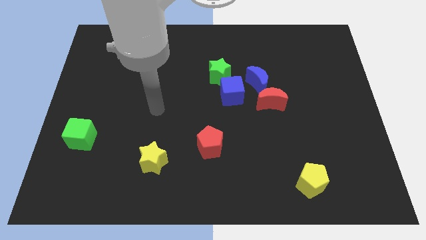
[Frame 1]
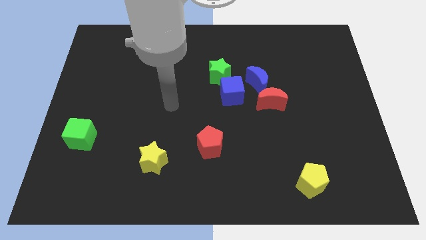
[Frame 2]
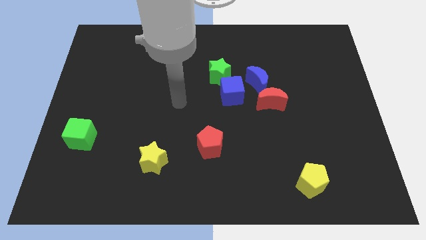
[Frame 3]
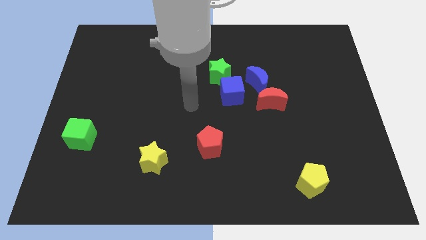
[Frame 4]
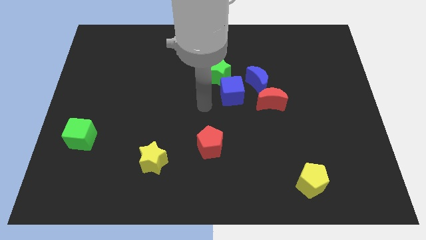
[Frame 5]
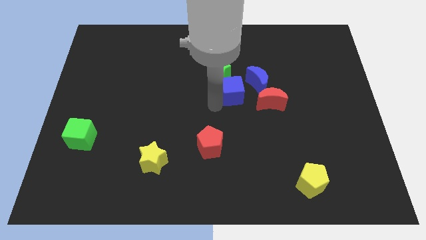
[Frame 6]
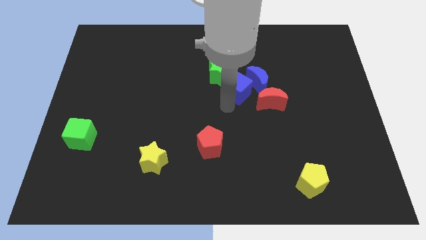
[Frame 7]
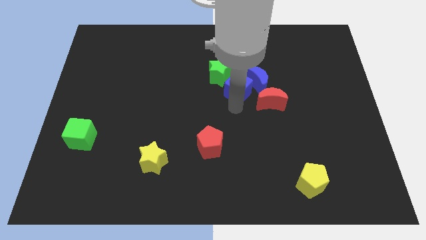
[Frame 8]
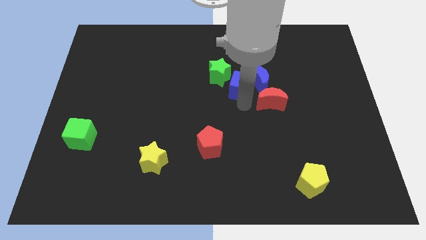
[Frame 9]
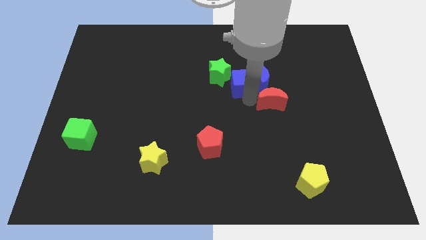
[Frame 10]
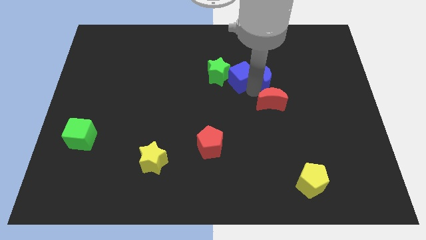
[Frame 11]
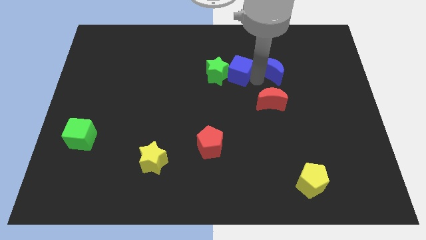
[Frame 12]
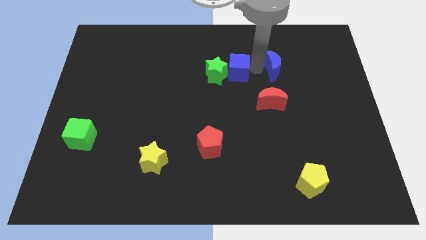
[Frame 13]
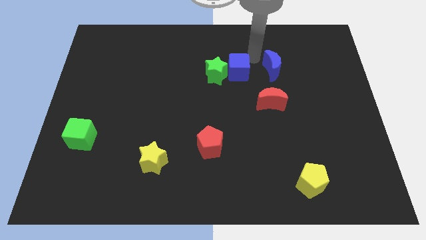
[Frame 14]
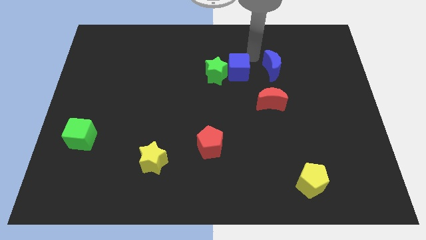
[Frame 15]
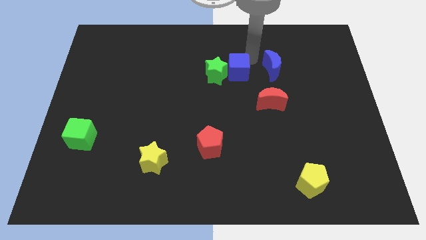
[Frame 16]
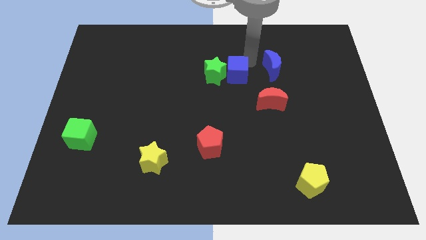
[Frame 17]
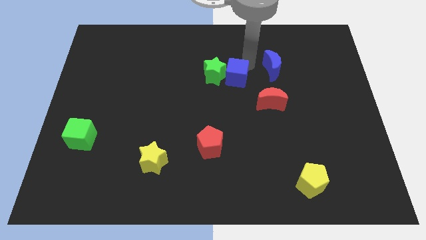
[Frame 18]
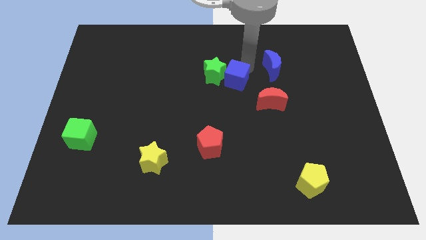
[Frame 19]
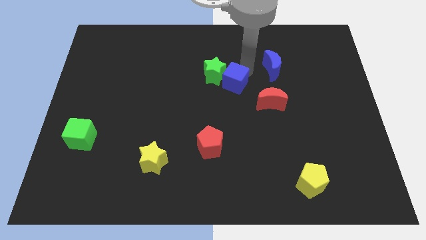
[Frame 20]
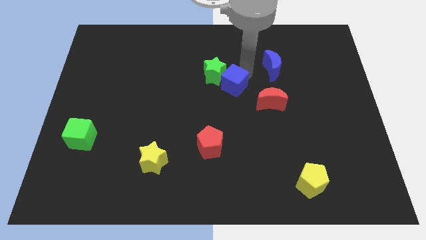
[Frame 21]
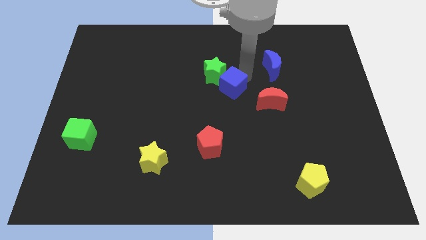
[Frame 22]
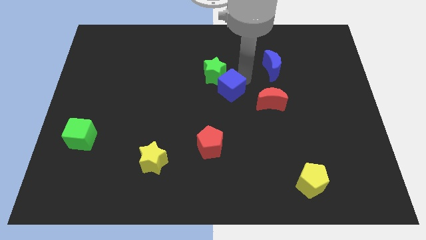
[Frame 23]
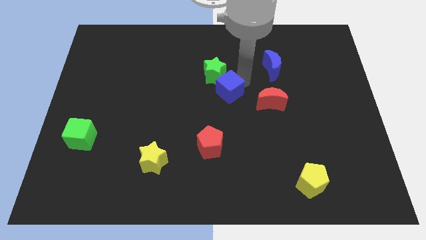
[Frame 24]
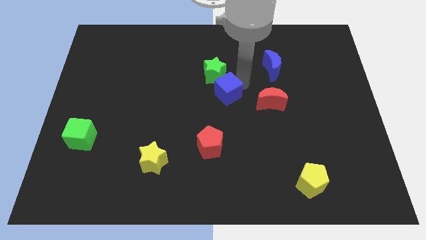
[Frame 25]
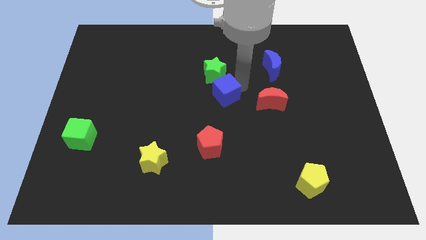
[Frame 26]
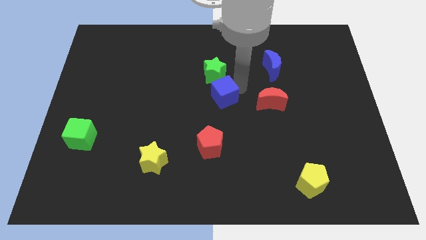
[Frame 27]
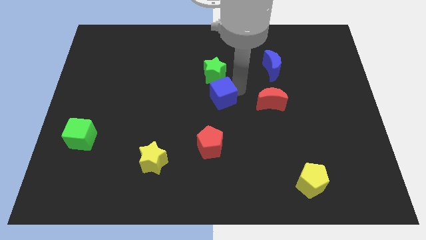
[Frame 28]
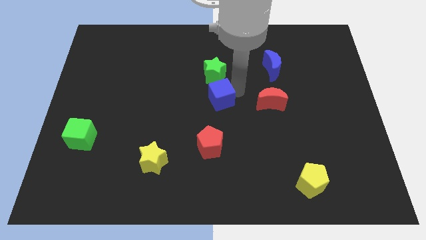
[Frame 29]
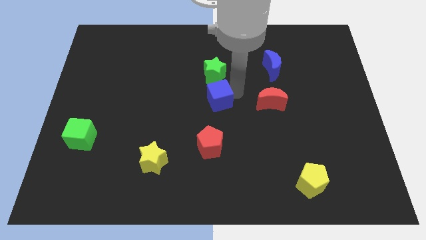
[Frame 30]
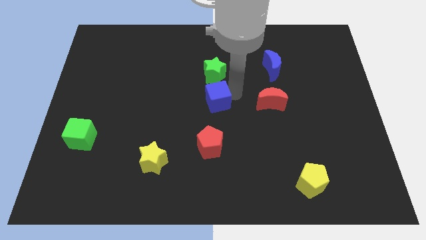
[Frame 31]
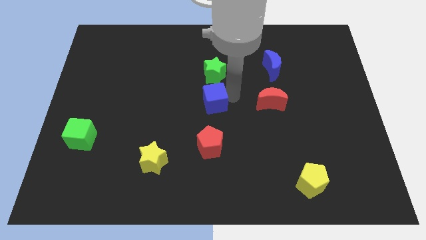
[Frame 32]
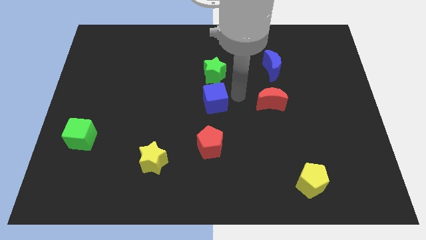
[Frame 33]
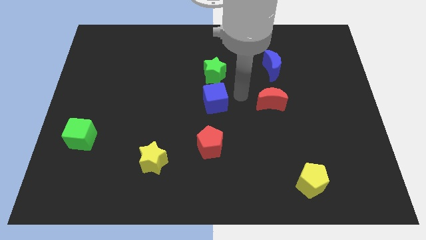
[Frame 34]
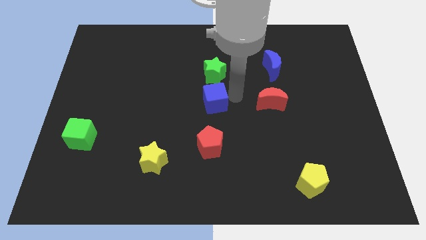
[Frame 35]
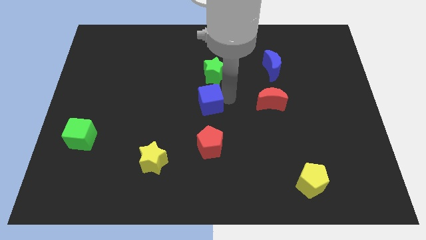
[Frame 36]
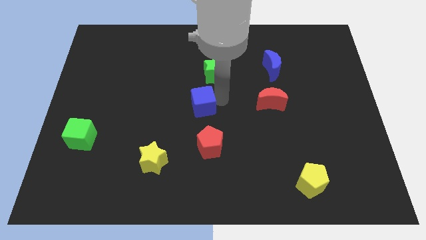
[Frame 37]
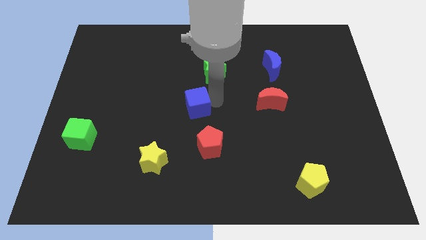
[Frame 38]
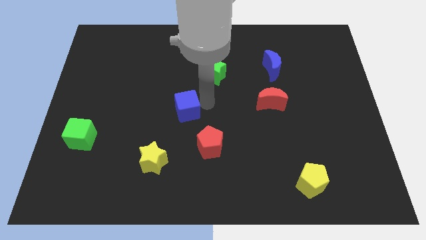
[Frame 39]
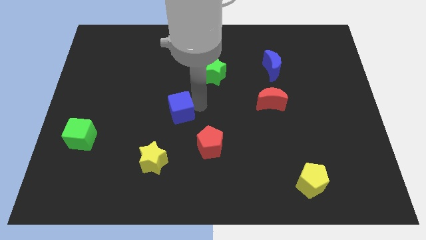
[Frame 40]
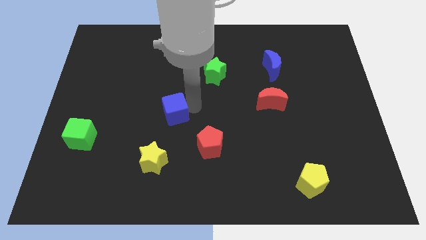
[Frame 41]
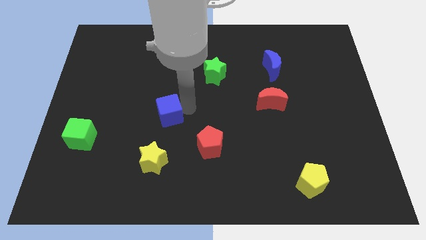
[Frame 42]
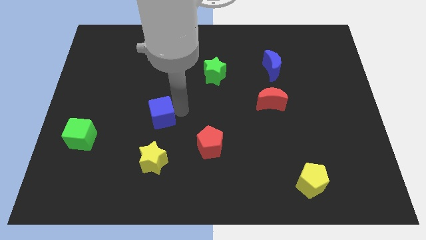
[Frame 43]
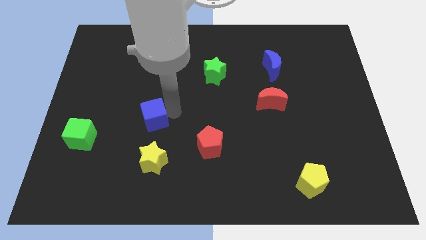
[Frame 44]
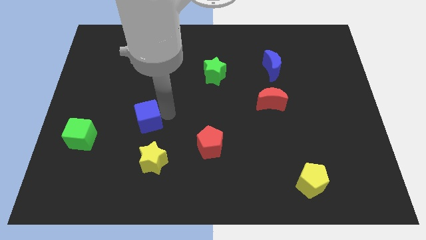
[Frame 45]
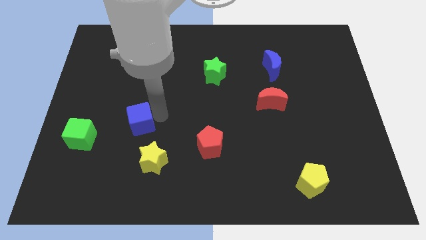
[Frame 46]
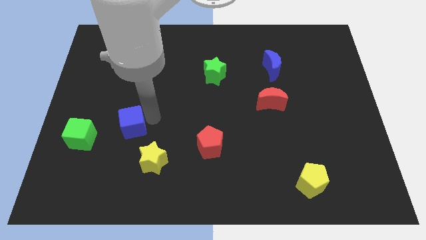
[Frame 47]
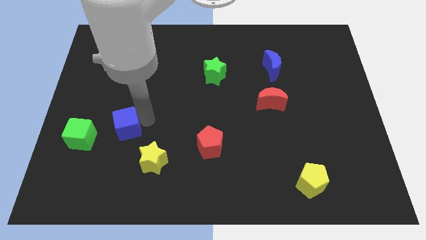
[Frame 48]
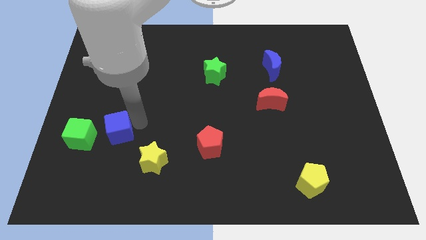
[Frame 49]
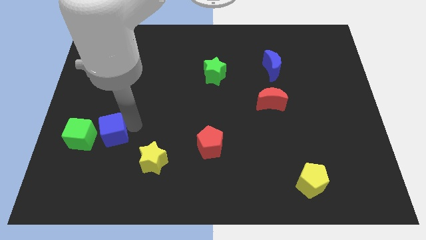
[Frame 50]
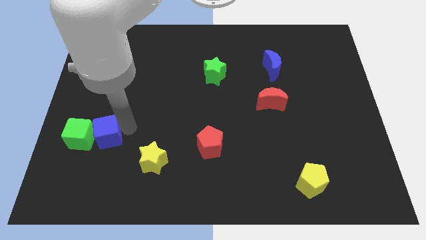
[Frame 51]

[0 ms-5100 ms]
push the blue cube to the green cube

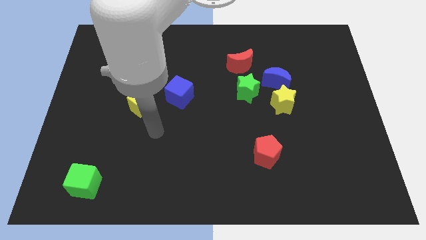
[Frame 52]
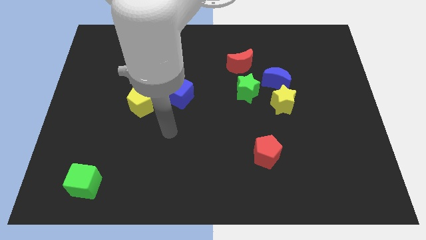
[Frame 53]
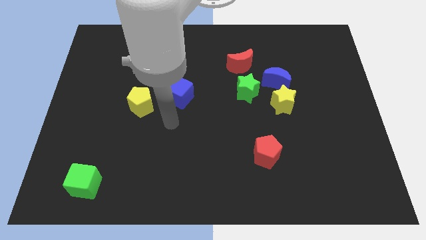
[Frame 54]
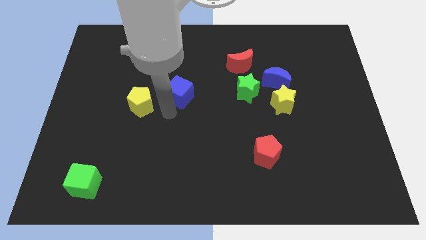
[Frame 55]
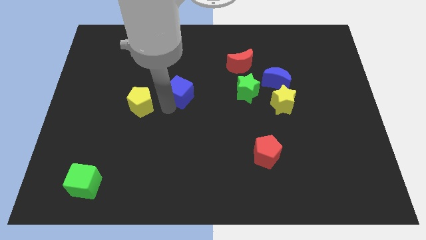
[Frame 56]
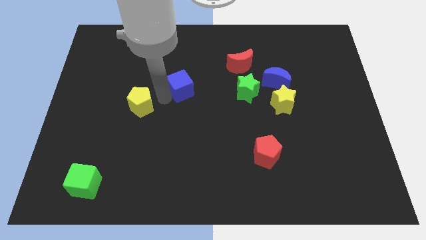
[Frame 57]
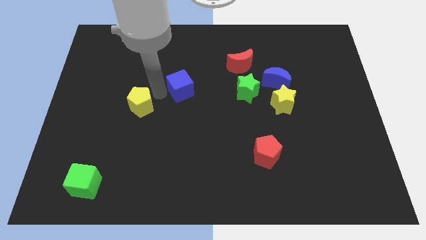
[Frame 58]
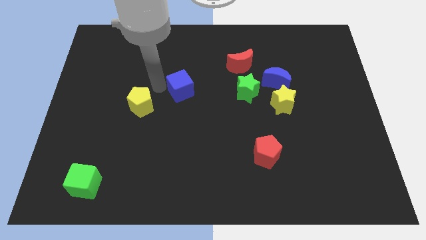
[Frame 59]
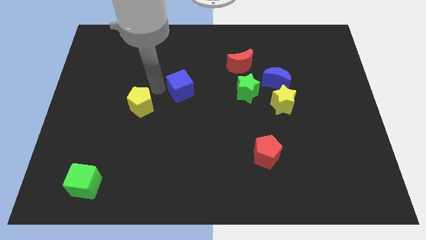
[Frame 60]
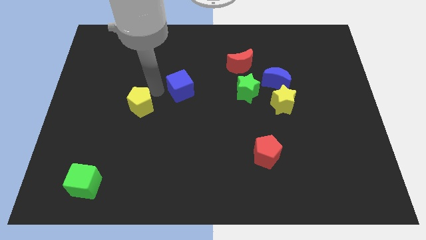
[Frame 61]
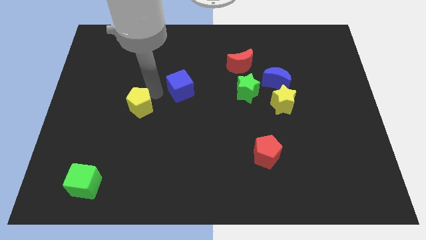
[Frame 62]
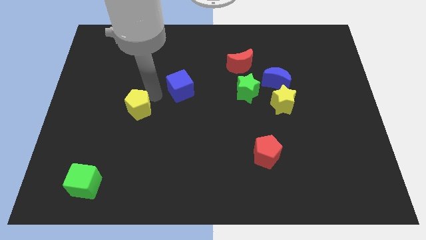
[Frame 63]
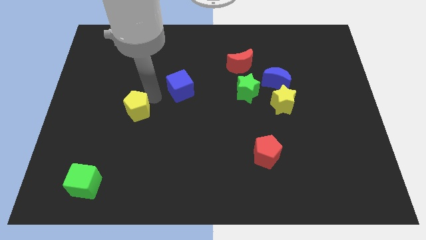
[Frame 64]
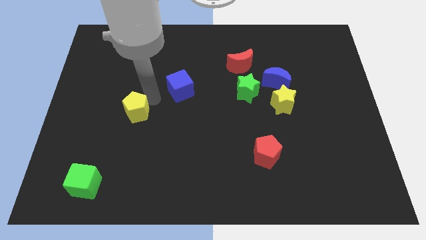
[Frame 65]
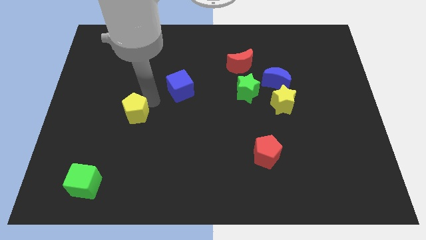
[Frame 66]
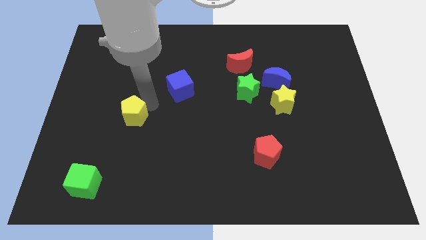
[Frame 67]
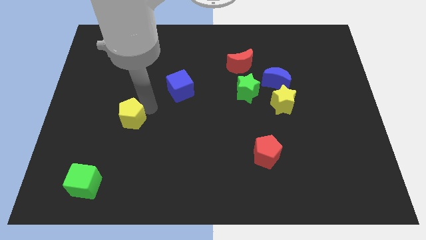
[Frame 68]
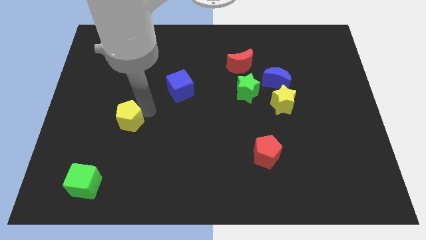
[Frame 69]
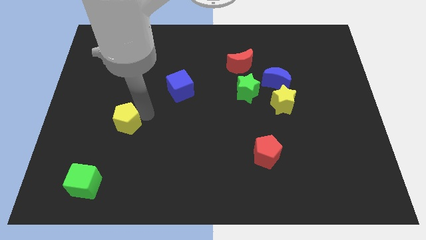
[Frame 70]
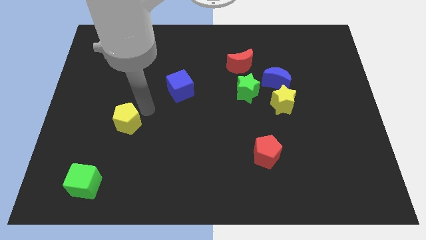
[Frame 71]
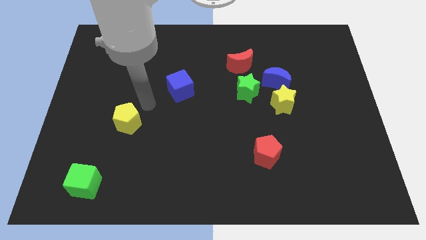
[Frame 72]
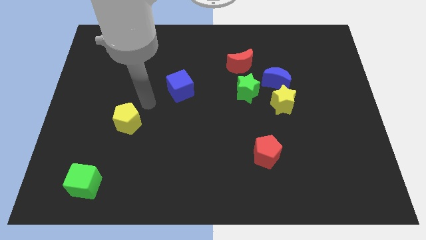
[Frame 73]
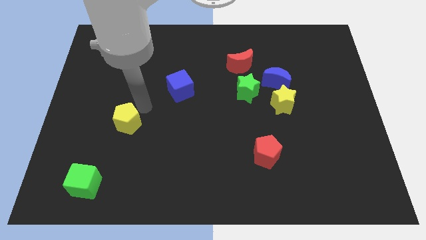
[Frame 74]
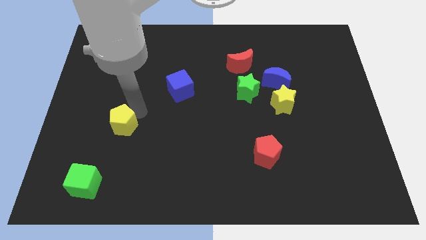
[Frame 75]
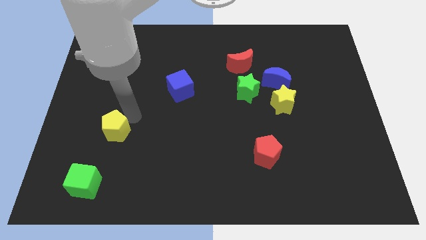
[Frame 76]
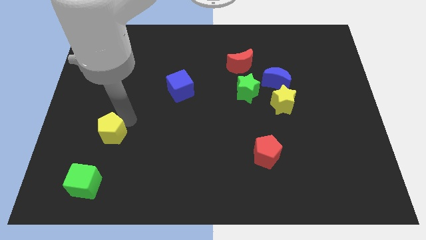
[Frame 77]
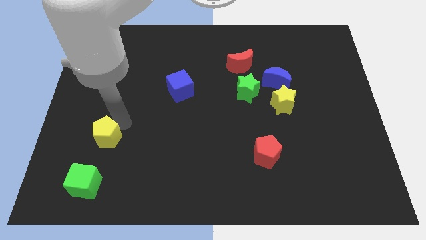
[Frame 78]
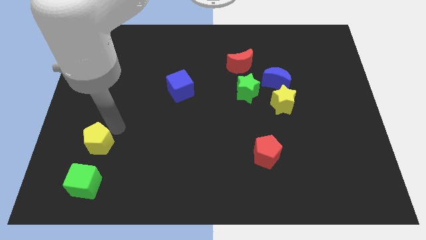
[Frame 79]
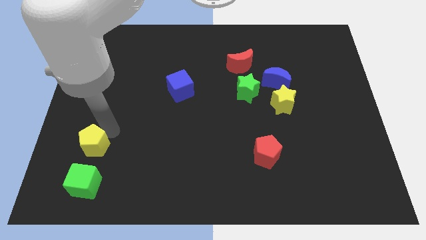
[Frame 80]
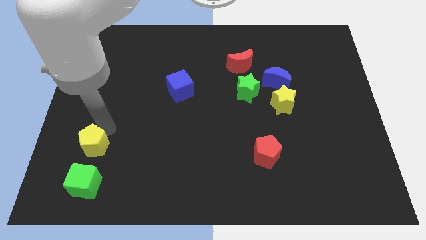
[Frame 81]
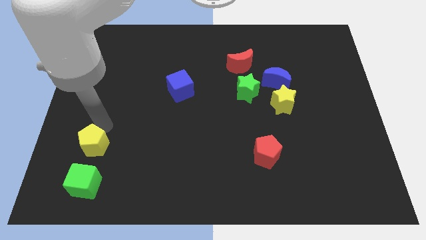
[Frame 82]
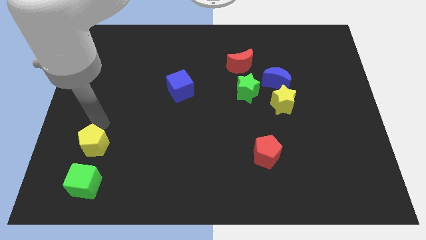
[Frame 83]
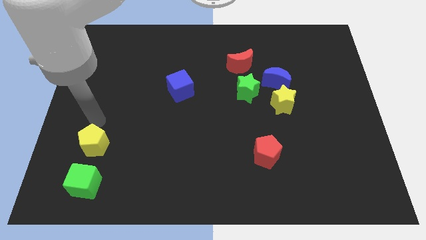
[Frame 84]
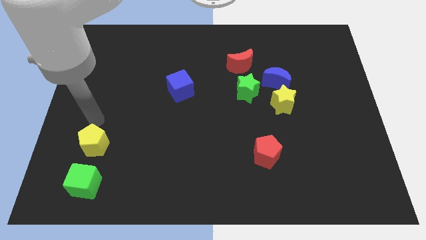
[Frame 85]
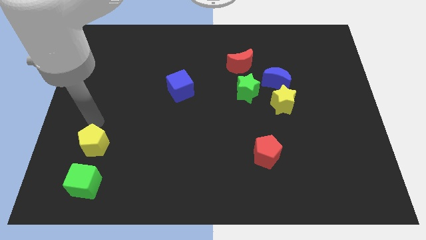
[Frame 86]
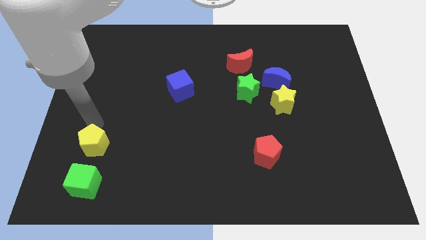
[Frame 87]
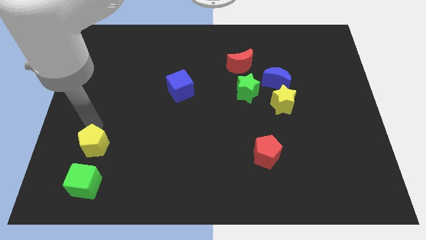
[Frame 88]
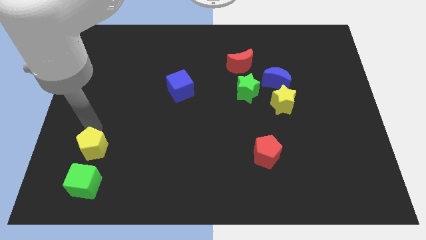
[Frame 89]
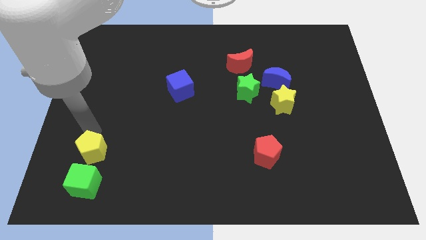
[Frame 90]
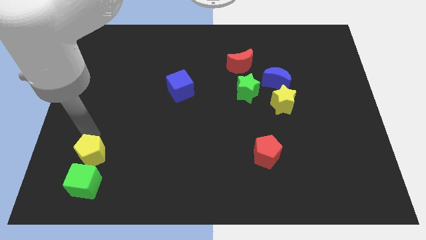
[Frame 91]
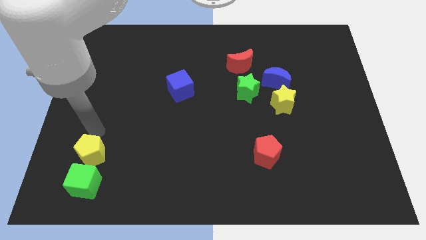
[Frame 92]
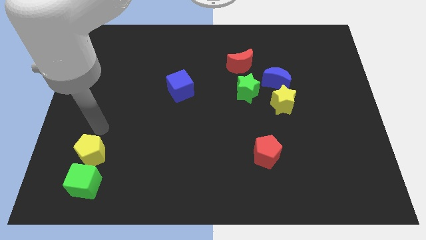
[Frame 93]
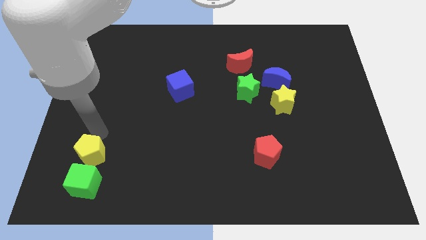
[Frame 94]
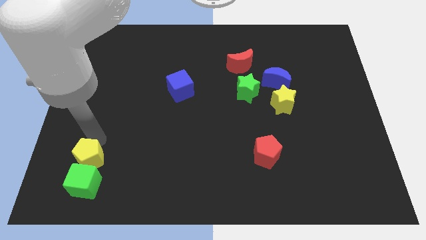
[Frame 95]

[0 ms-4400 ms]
slide the yellow pentagon close to the green cube
